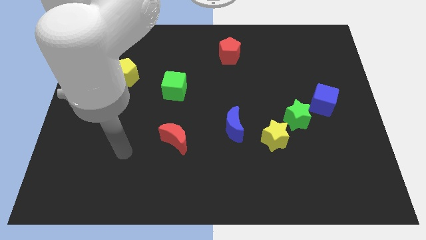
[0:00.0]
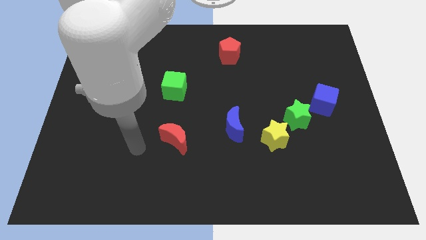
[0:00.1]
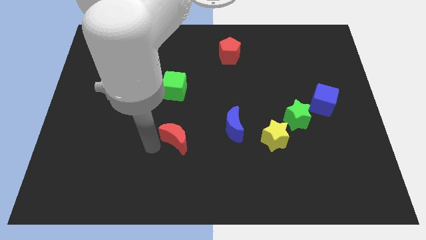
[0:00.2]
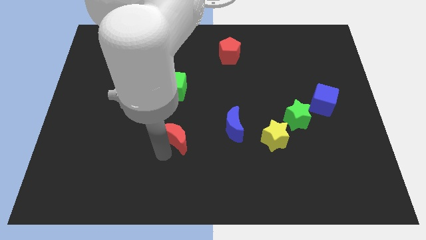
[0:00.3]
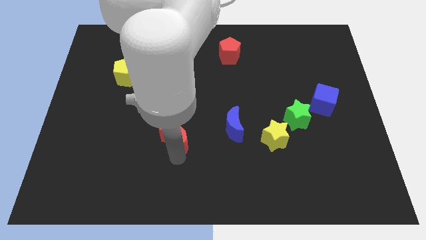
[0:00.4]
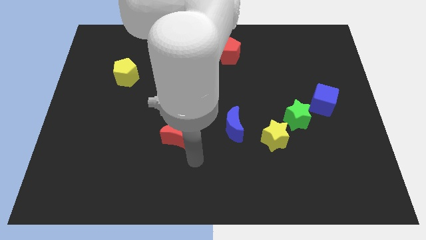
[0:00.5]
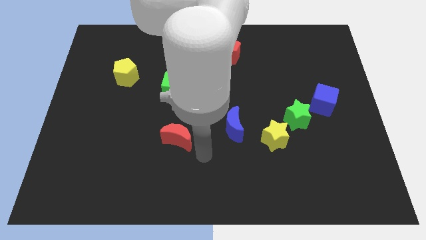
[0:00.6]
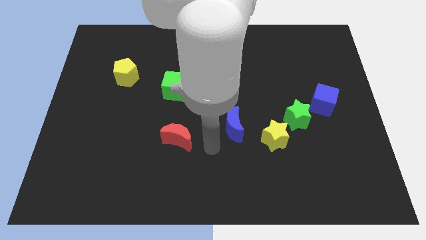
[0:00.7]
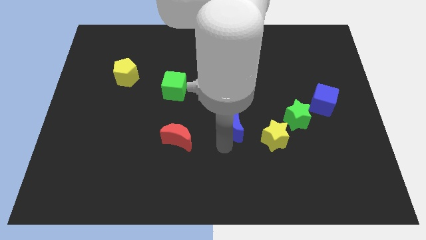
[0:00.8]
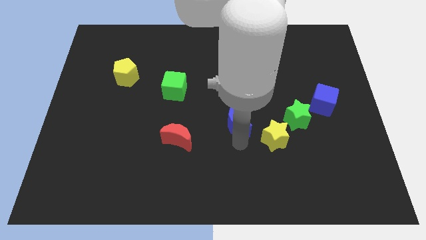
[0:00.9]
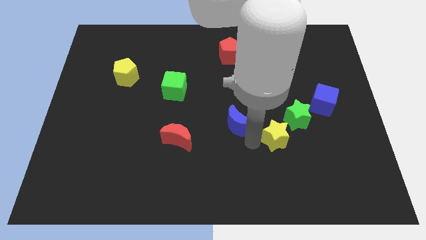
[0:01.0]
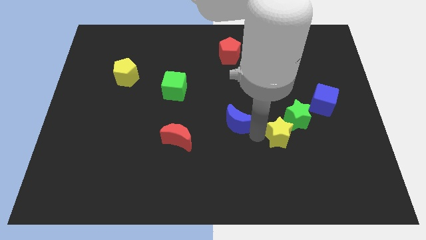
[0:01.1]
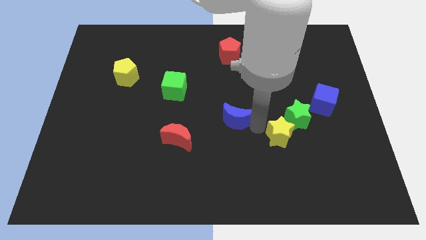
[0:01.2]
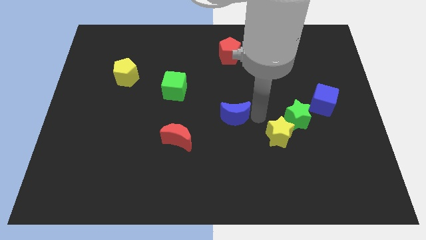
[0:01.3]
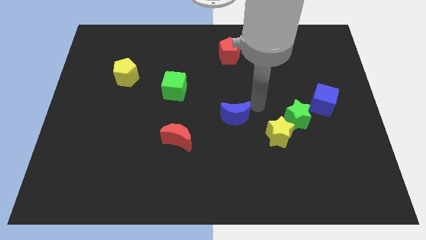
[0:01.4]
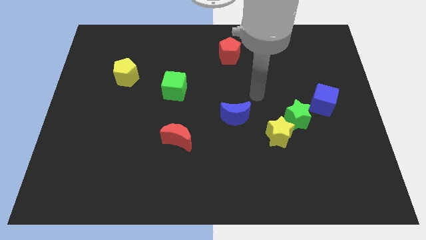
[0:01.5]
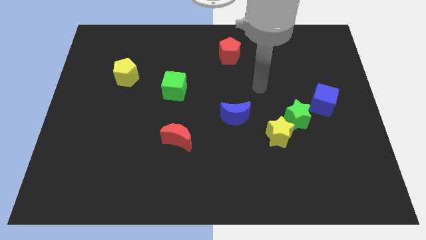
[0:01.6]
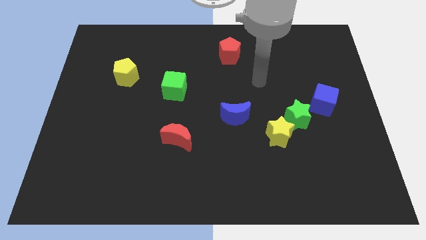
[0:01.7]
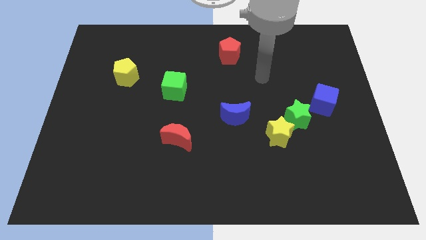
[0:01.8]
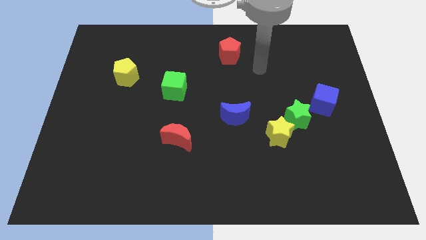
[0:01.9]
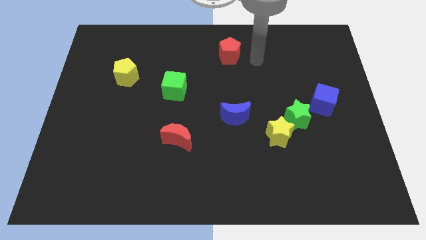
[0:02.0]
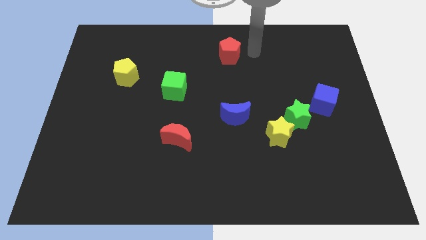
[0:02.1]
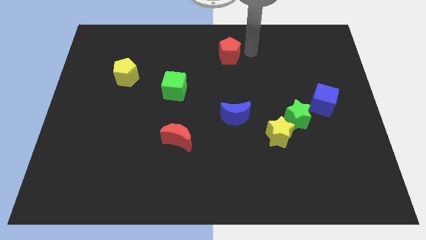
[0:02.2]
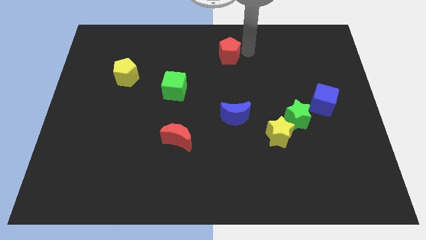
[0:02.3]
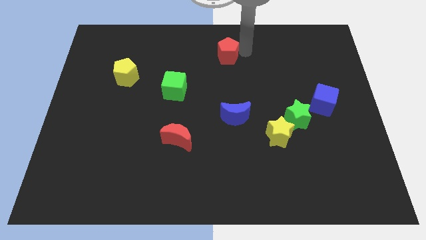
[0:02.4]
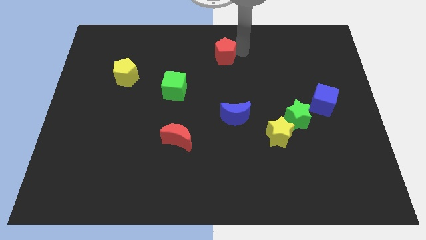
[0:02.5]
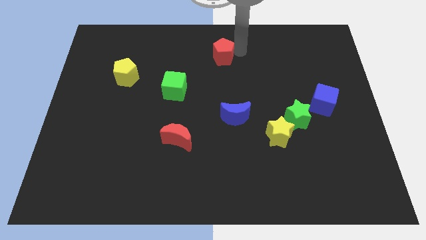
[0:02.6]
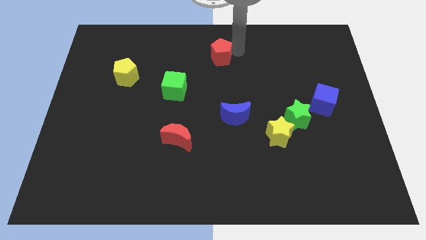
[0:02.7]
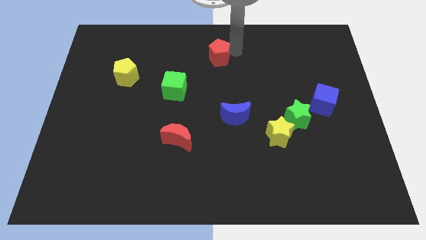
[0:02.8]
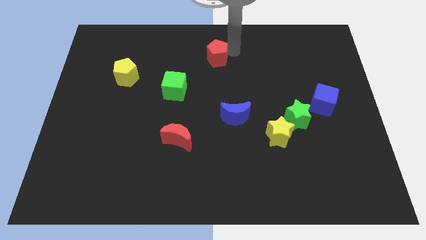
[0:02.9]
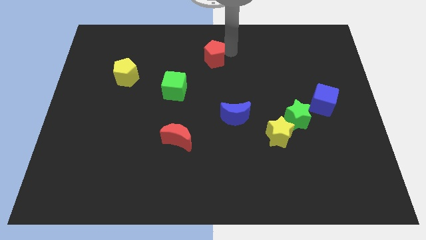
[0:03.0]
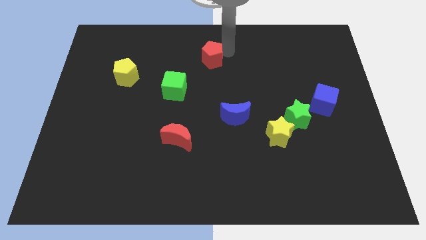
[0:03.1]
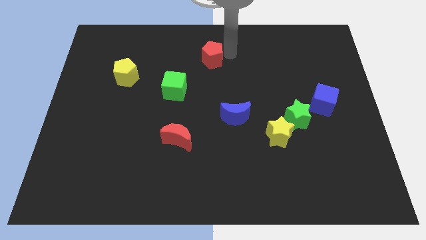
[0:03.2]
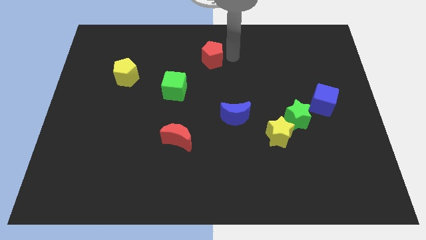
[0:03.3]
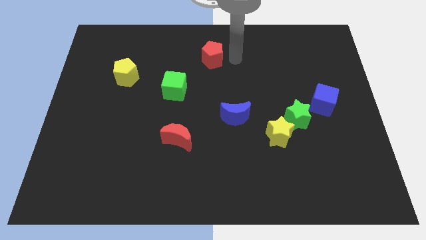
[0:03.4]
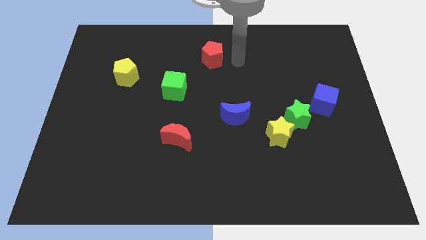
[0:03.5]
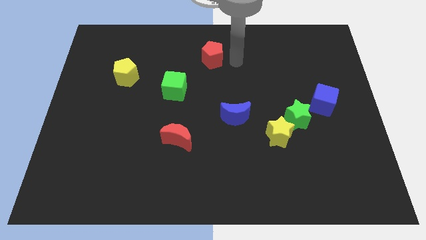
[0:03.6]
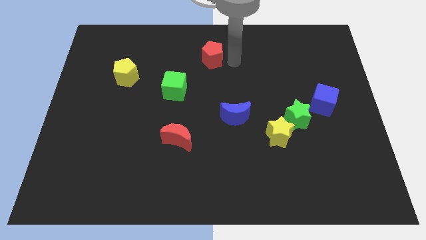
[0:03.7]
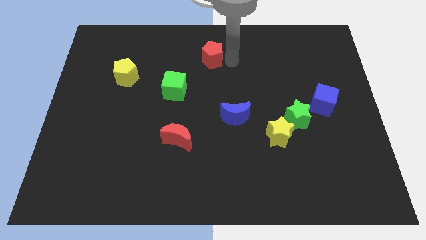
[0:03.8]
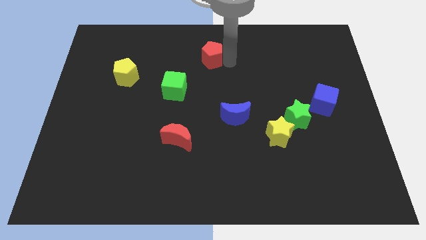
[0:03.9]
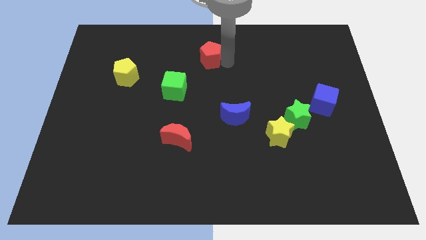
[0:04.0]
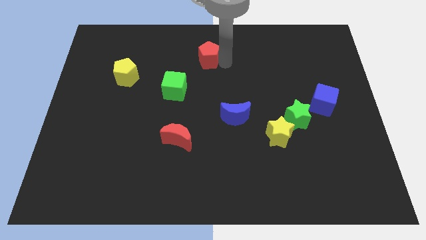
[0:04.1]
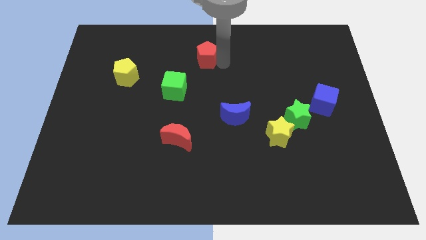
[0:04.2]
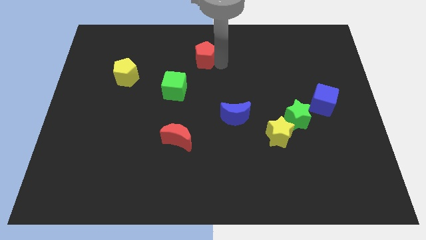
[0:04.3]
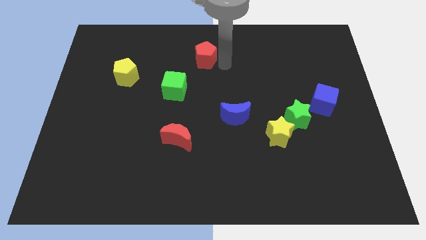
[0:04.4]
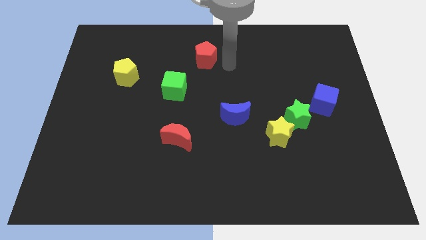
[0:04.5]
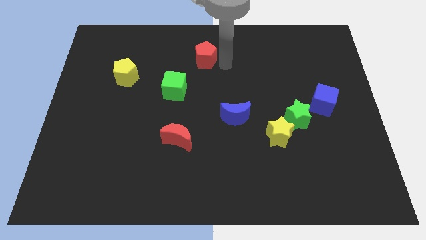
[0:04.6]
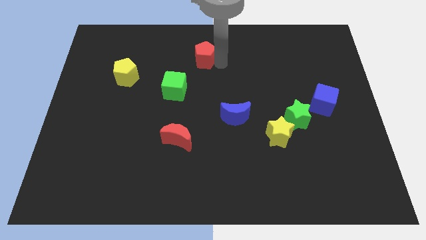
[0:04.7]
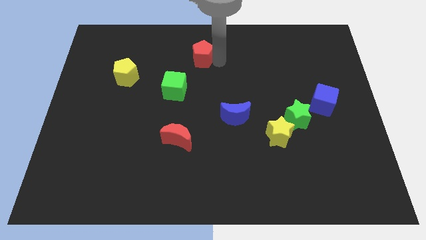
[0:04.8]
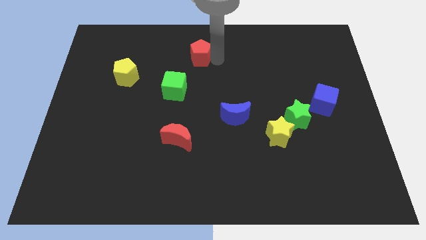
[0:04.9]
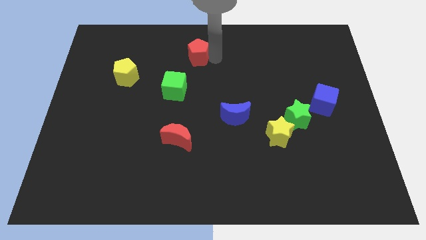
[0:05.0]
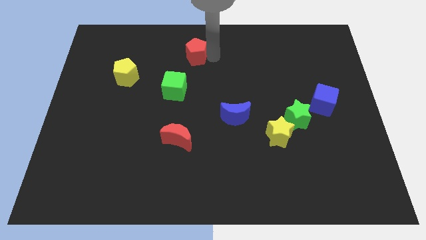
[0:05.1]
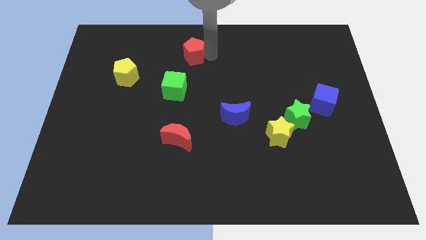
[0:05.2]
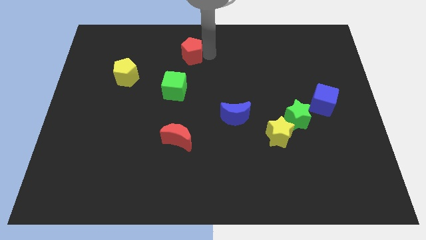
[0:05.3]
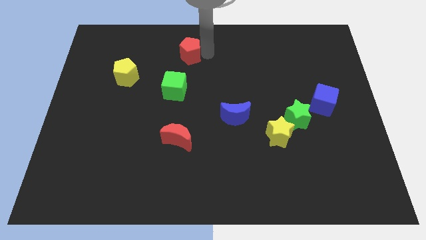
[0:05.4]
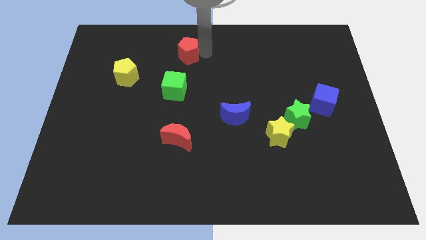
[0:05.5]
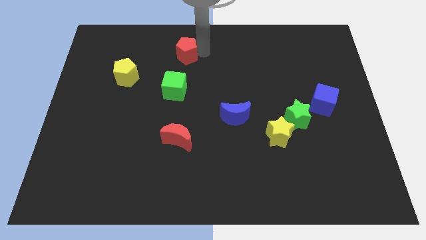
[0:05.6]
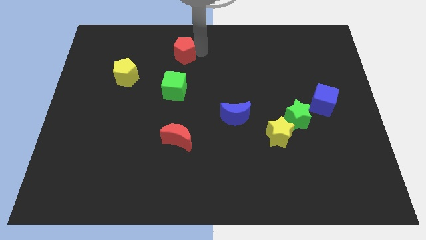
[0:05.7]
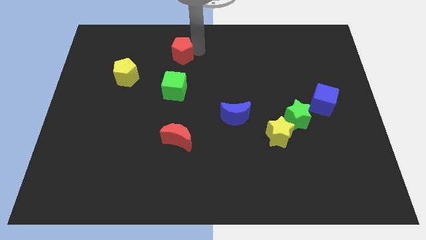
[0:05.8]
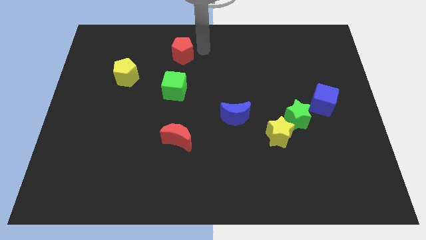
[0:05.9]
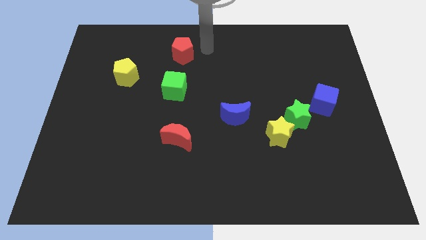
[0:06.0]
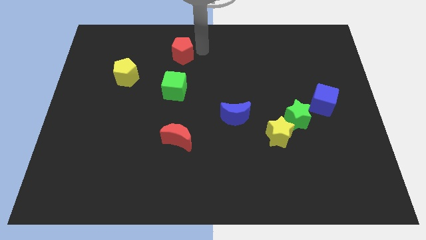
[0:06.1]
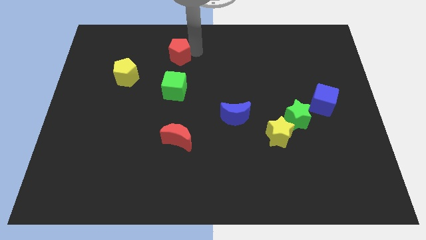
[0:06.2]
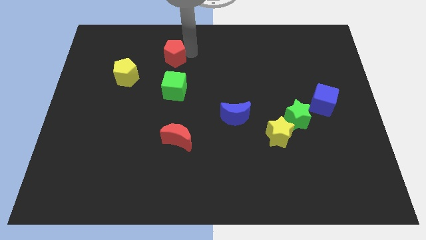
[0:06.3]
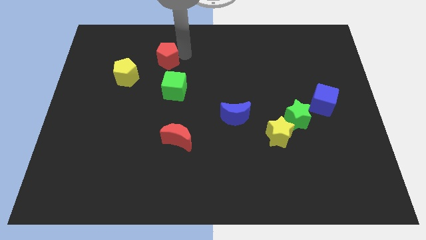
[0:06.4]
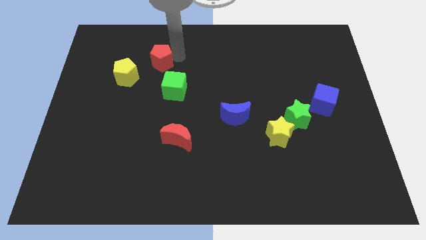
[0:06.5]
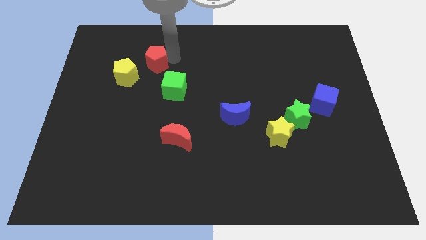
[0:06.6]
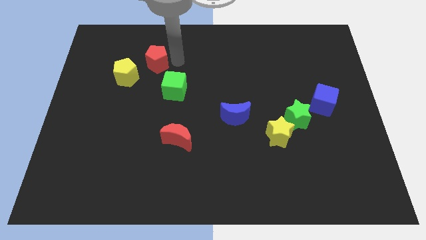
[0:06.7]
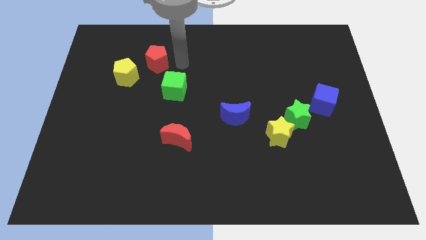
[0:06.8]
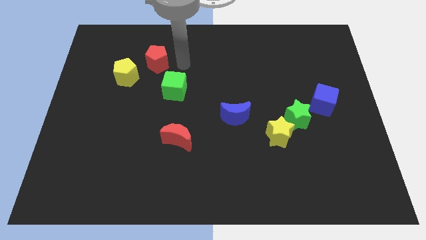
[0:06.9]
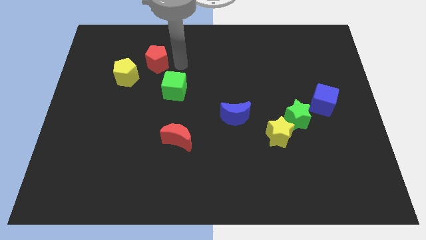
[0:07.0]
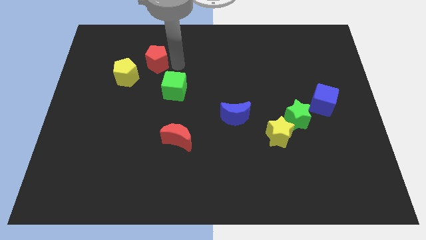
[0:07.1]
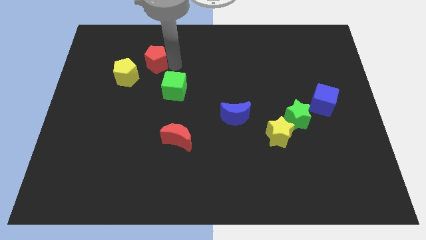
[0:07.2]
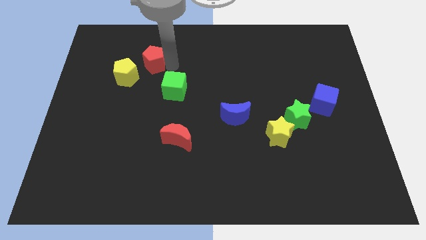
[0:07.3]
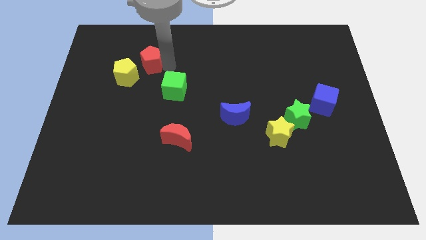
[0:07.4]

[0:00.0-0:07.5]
push the red pentagon to the left

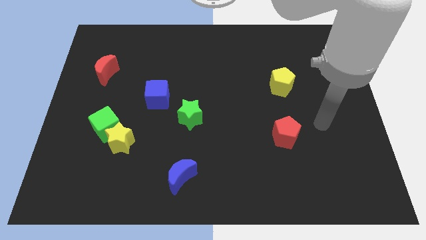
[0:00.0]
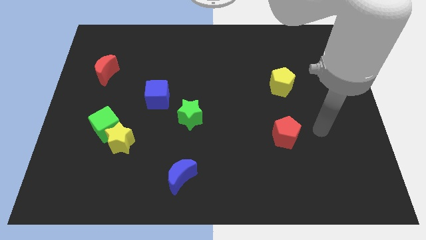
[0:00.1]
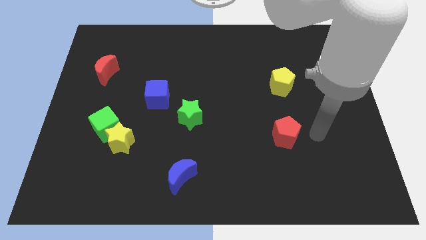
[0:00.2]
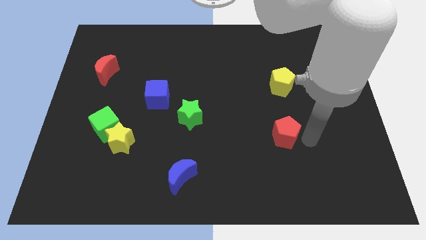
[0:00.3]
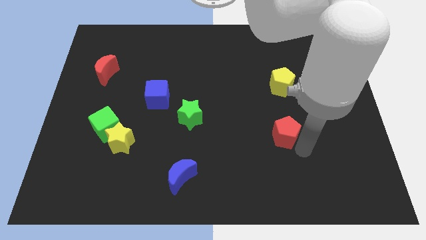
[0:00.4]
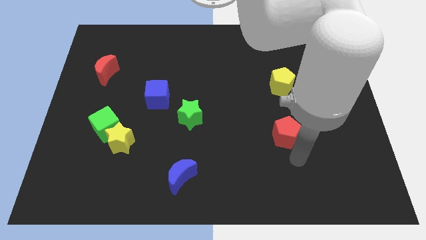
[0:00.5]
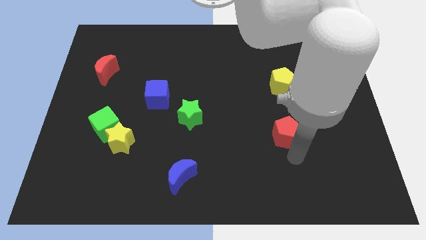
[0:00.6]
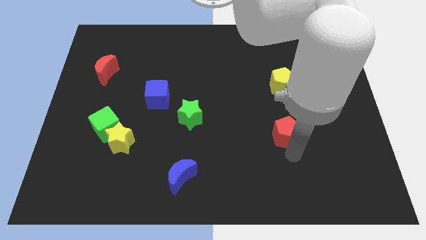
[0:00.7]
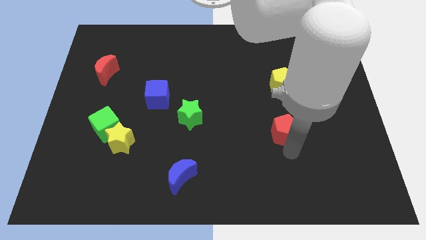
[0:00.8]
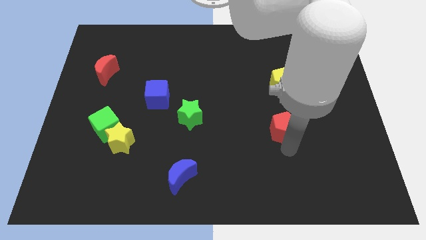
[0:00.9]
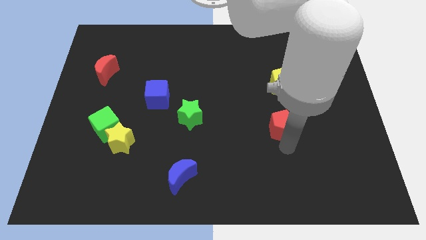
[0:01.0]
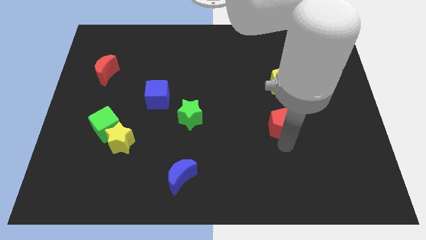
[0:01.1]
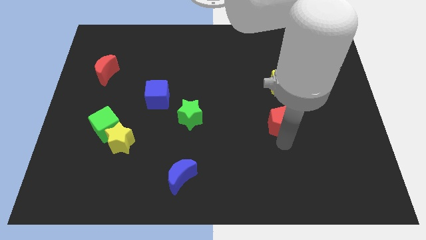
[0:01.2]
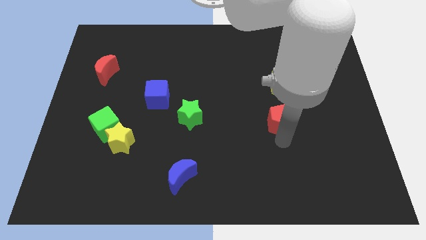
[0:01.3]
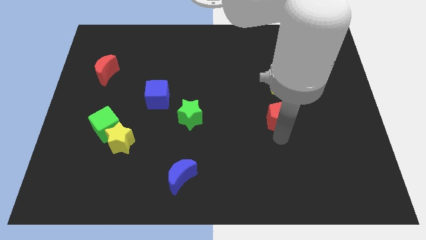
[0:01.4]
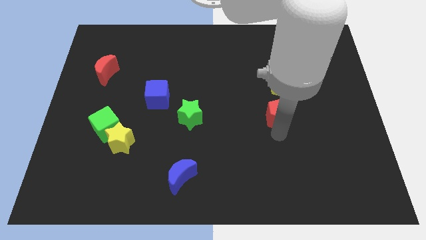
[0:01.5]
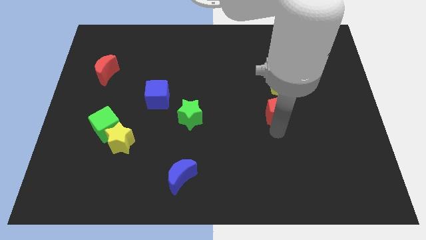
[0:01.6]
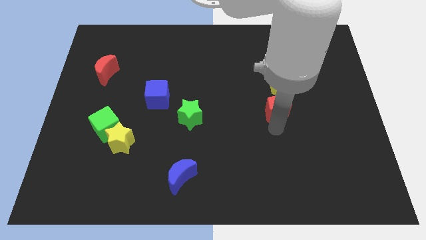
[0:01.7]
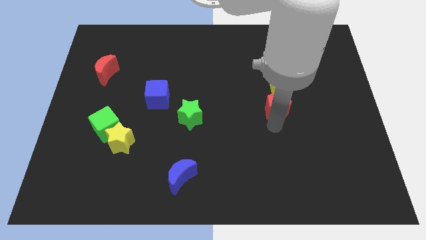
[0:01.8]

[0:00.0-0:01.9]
slightly move the red pentagon upwards
